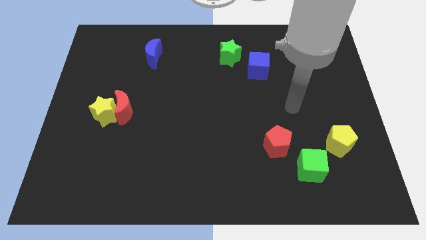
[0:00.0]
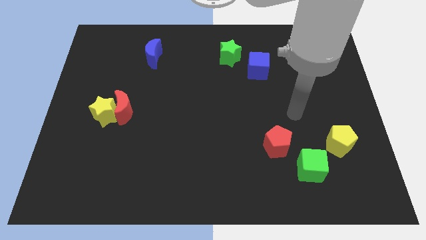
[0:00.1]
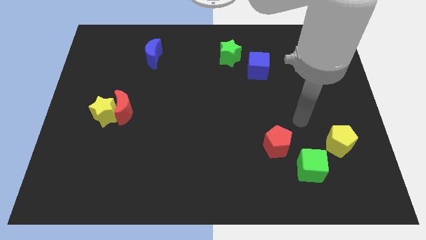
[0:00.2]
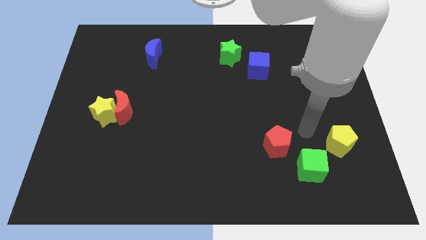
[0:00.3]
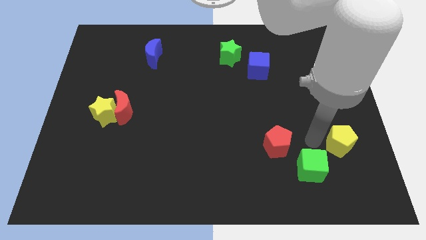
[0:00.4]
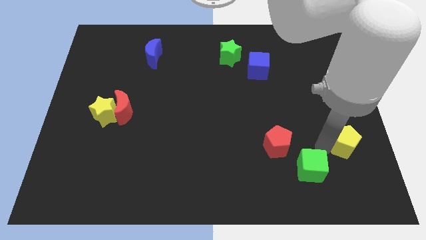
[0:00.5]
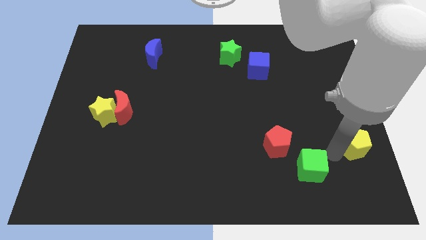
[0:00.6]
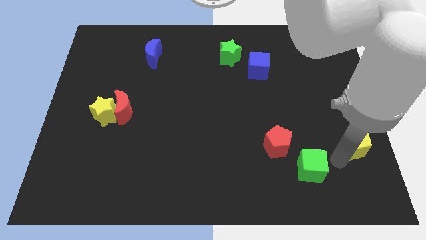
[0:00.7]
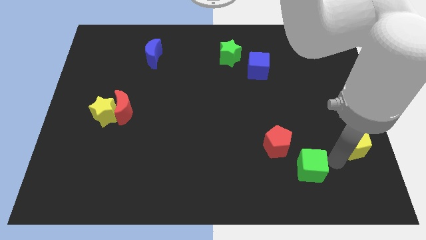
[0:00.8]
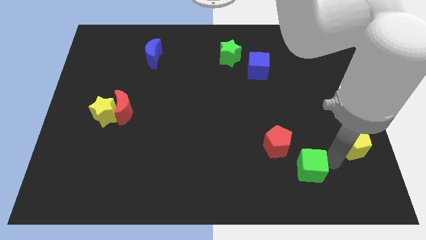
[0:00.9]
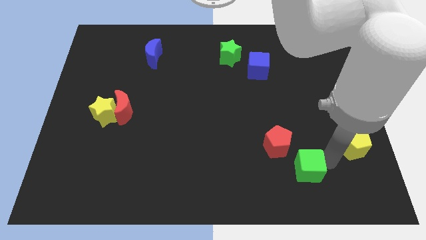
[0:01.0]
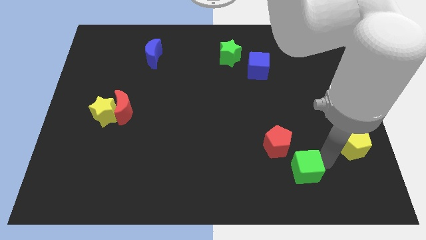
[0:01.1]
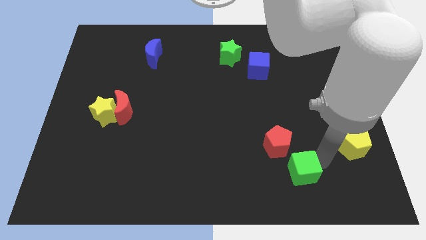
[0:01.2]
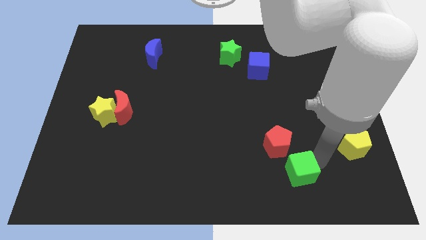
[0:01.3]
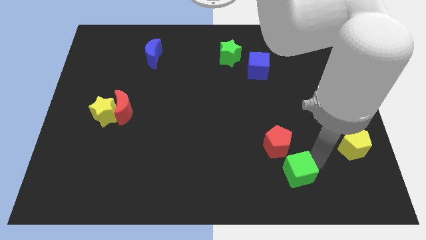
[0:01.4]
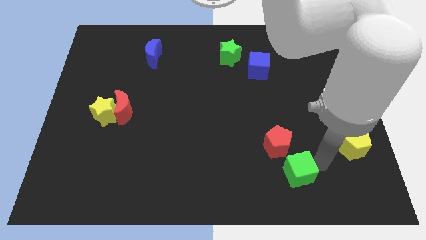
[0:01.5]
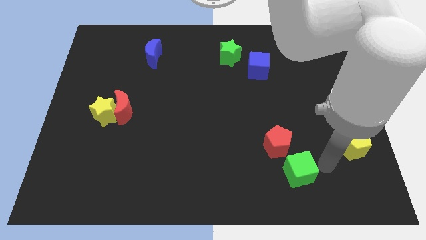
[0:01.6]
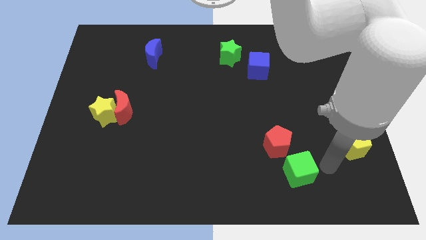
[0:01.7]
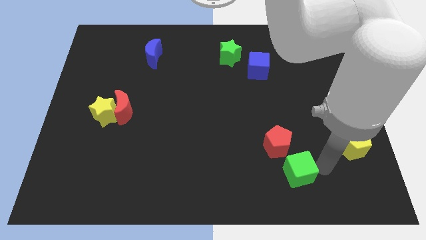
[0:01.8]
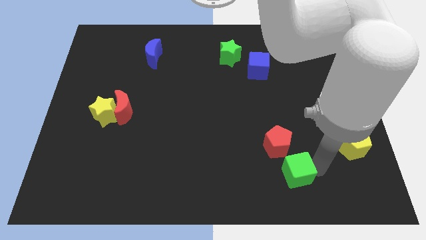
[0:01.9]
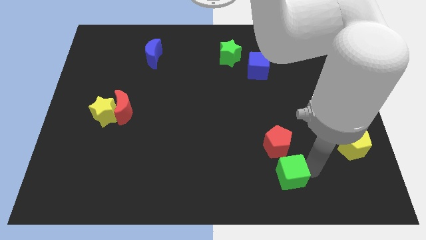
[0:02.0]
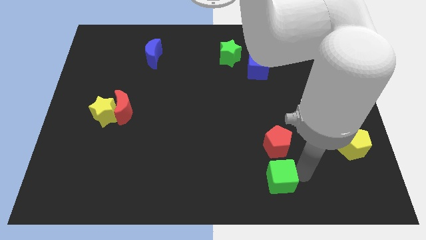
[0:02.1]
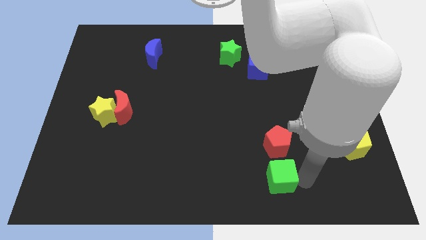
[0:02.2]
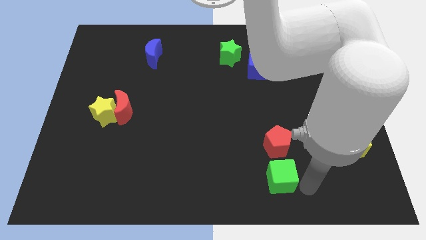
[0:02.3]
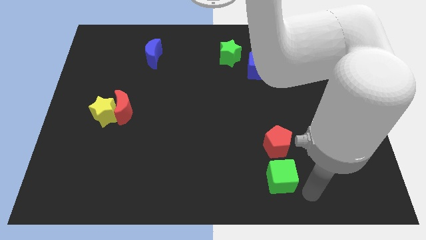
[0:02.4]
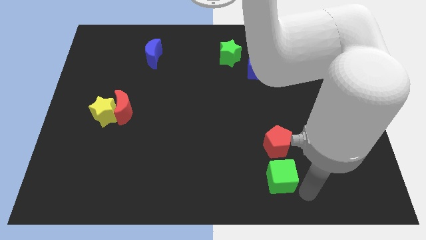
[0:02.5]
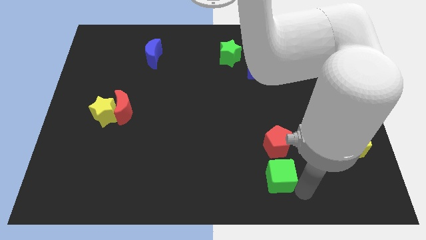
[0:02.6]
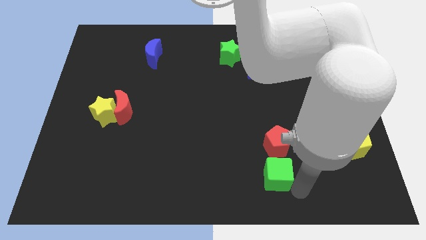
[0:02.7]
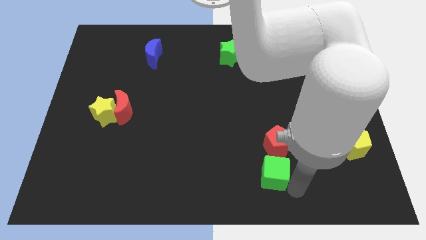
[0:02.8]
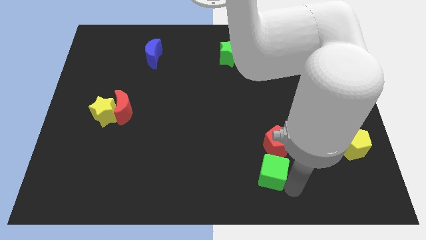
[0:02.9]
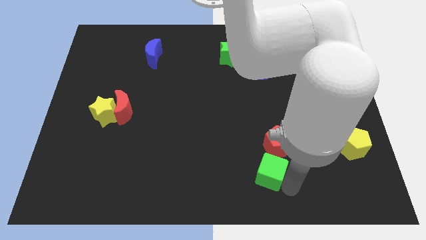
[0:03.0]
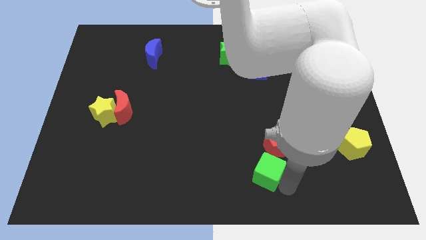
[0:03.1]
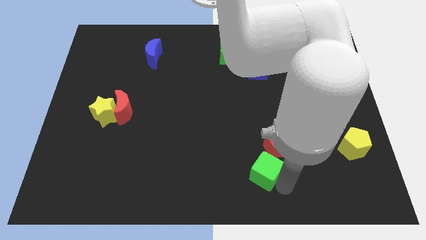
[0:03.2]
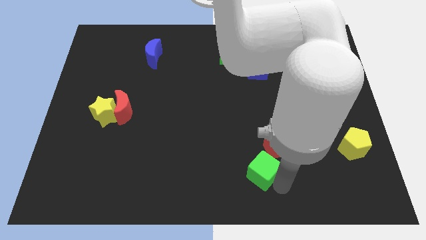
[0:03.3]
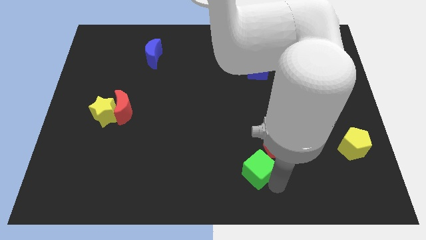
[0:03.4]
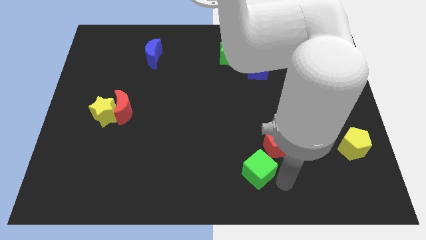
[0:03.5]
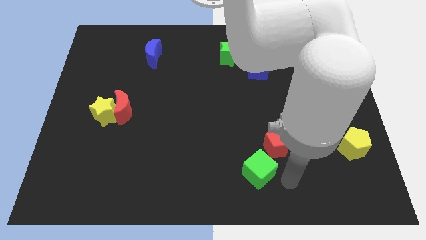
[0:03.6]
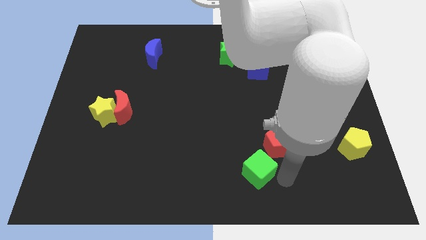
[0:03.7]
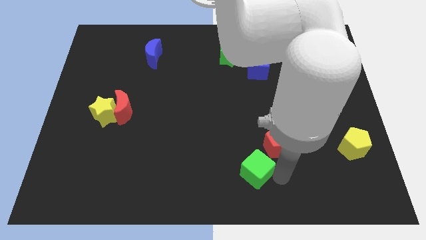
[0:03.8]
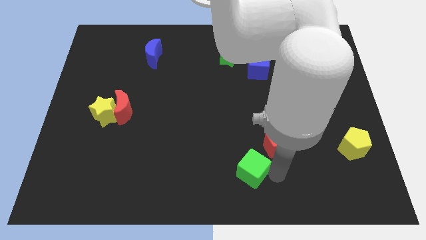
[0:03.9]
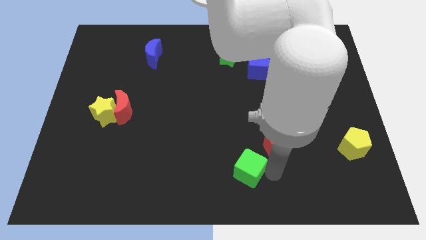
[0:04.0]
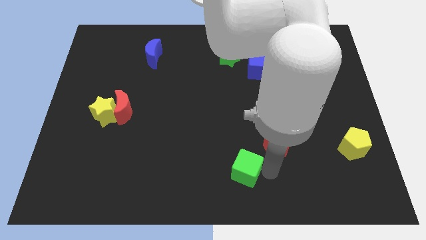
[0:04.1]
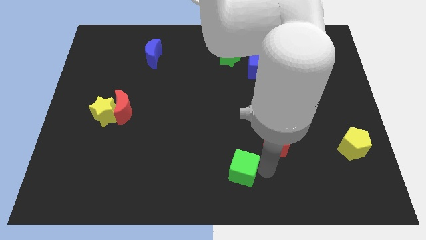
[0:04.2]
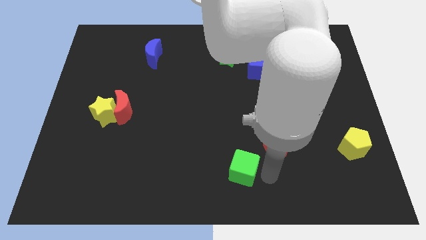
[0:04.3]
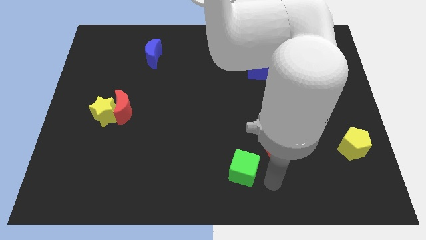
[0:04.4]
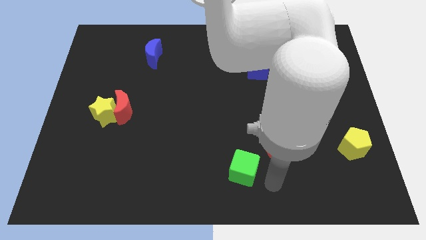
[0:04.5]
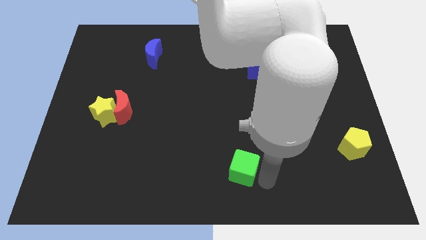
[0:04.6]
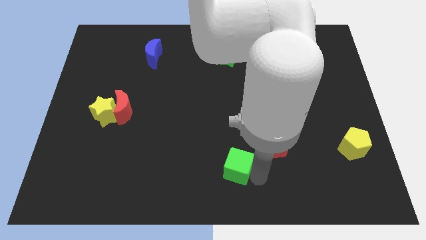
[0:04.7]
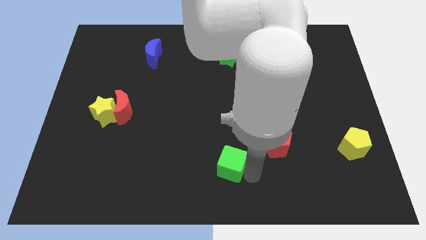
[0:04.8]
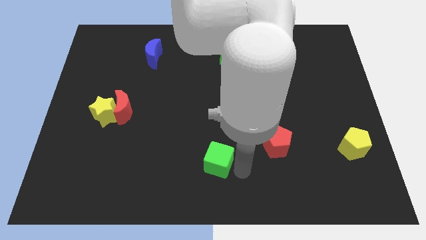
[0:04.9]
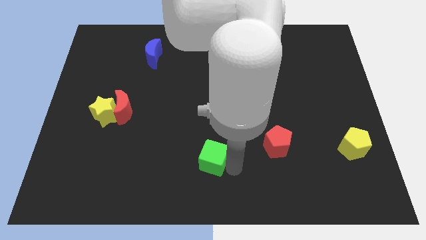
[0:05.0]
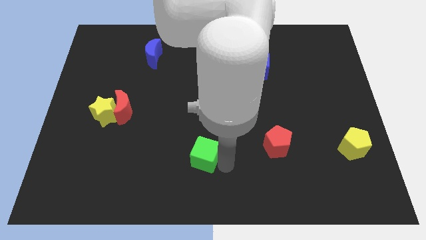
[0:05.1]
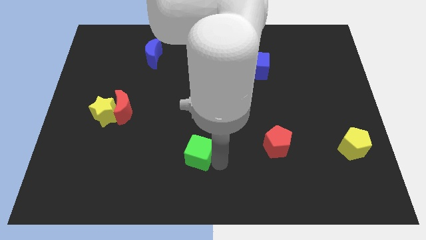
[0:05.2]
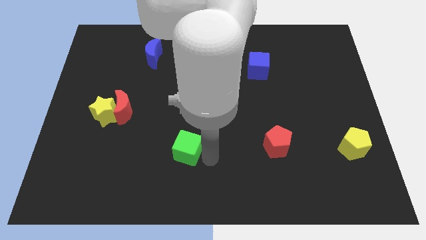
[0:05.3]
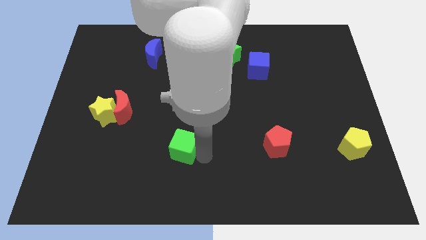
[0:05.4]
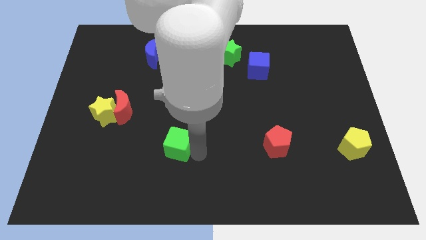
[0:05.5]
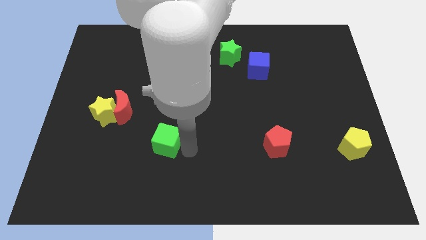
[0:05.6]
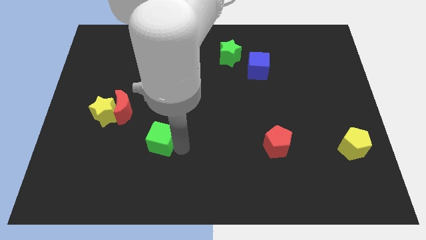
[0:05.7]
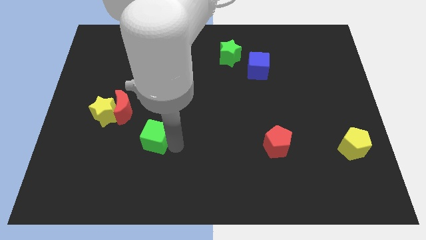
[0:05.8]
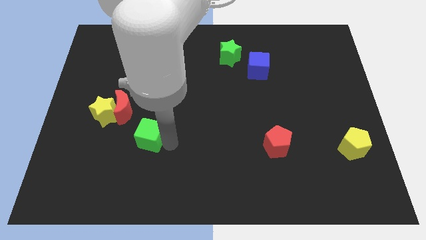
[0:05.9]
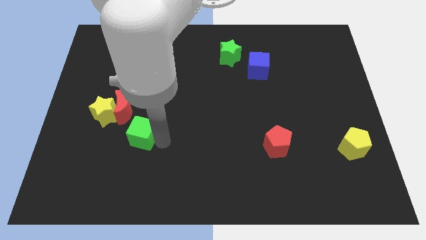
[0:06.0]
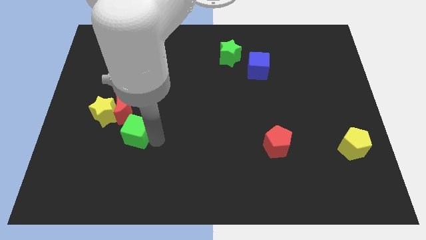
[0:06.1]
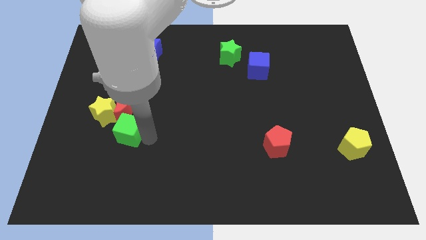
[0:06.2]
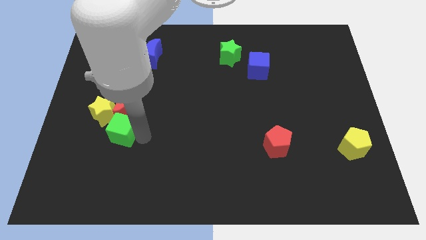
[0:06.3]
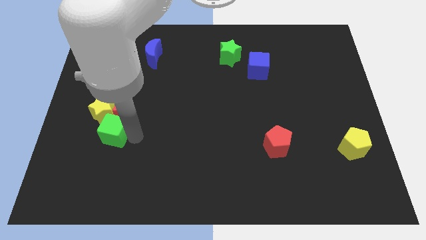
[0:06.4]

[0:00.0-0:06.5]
push the green cube close to the yellow star

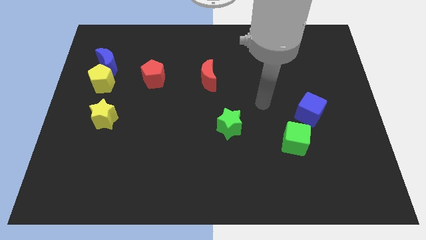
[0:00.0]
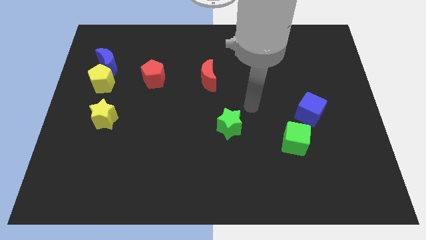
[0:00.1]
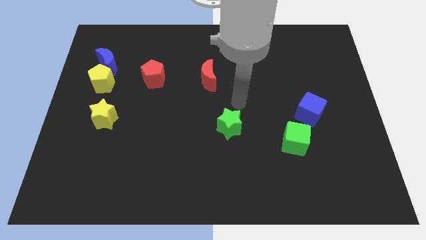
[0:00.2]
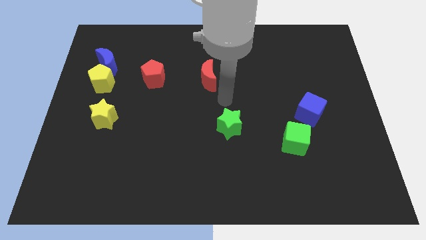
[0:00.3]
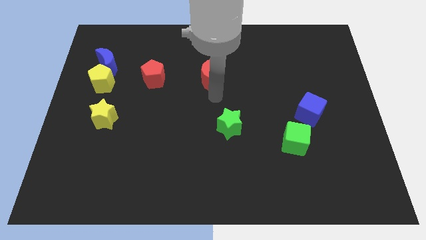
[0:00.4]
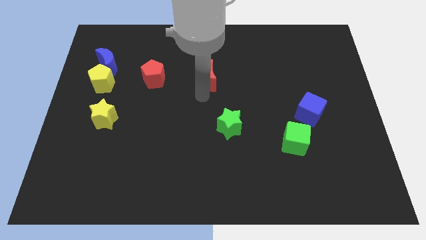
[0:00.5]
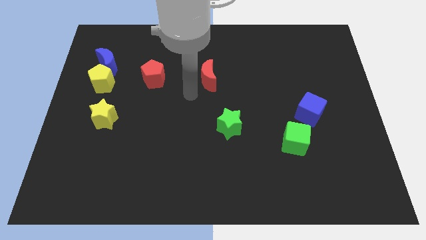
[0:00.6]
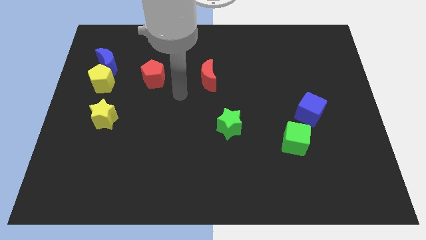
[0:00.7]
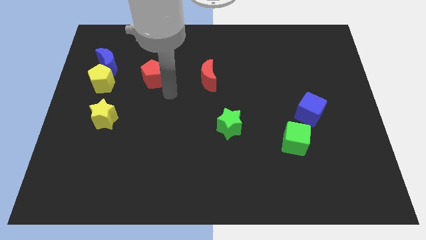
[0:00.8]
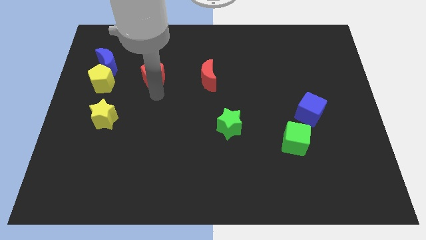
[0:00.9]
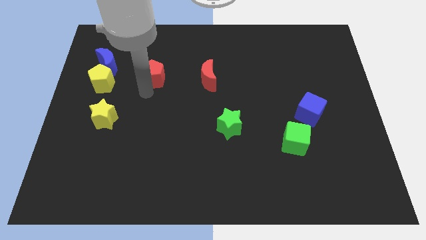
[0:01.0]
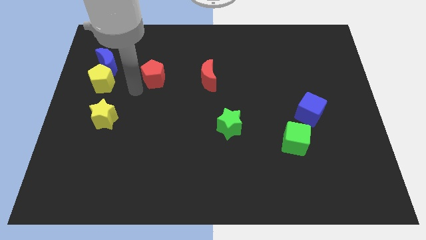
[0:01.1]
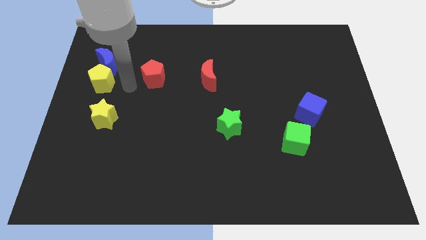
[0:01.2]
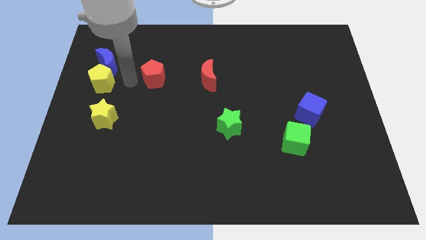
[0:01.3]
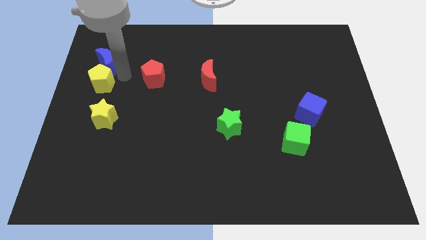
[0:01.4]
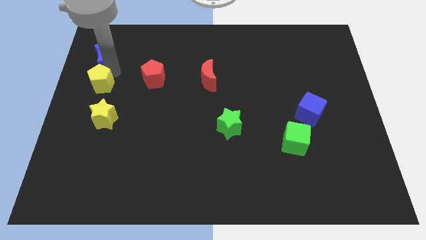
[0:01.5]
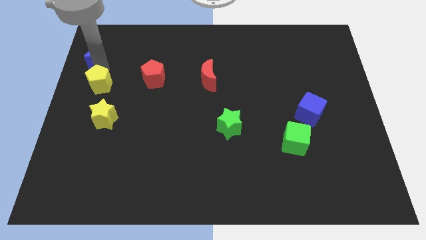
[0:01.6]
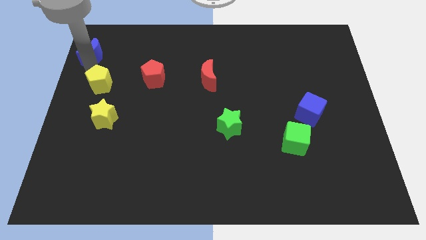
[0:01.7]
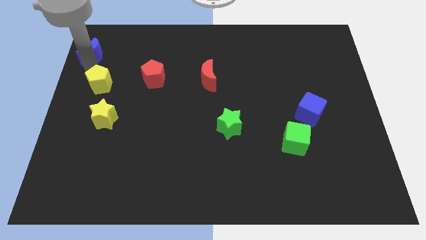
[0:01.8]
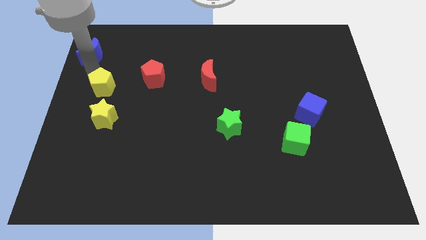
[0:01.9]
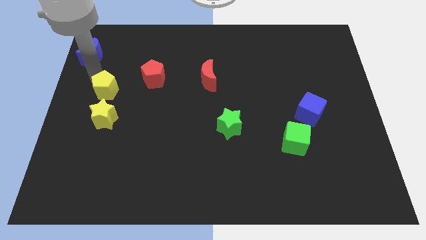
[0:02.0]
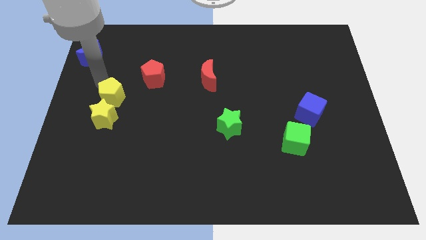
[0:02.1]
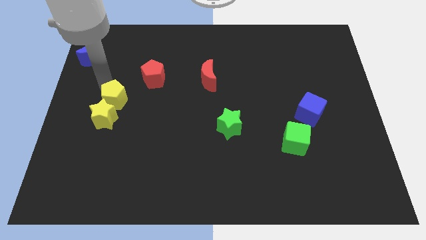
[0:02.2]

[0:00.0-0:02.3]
push the yellow pentagon to the yellow star
